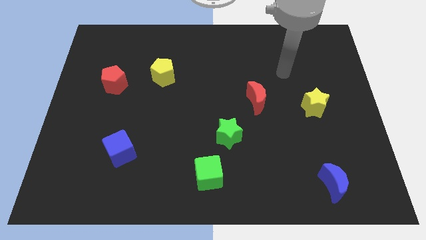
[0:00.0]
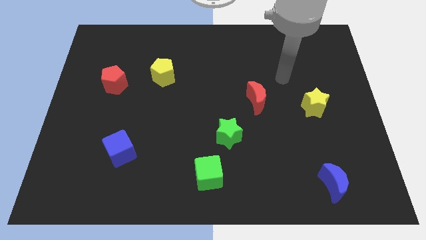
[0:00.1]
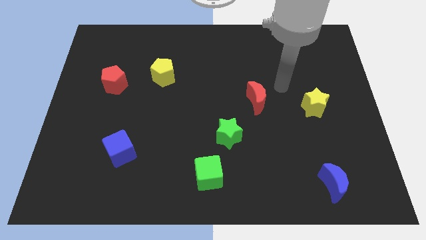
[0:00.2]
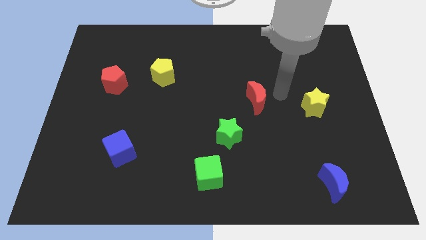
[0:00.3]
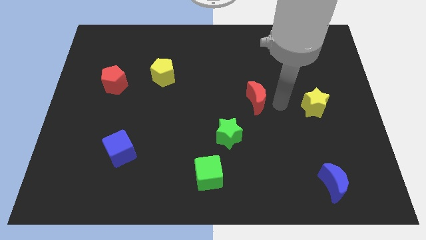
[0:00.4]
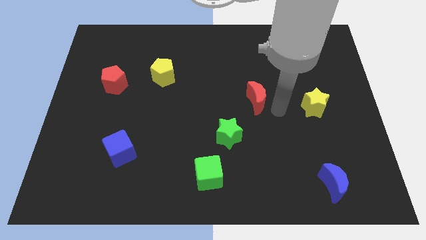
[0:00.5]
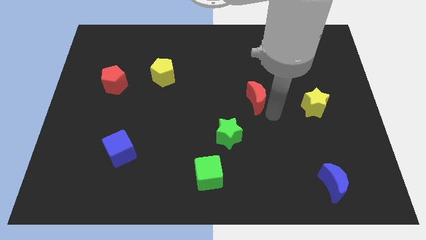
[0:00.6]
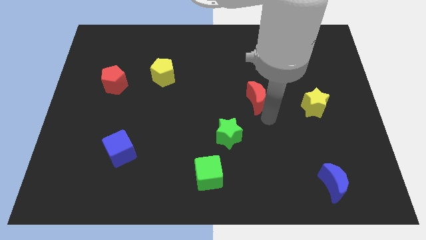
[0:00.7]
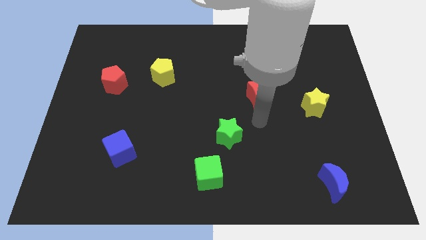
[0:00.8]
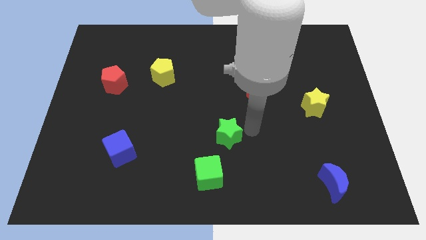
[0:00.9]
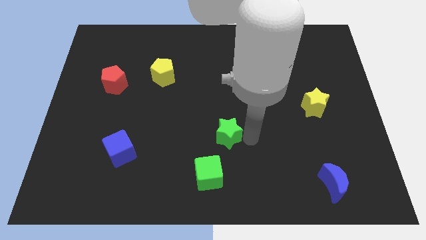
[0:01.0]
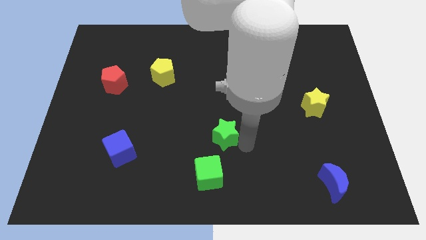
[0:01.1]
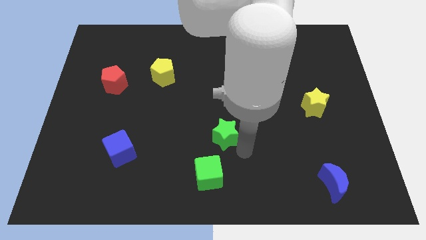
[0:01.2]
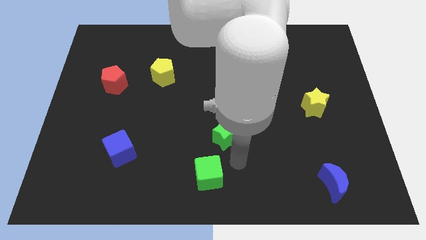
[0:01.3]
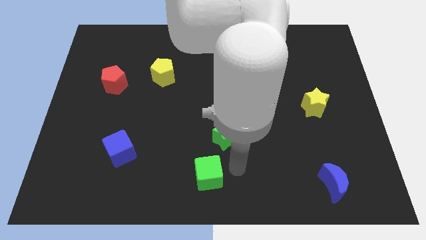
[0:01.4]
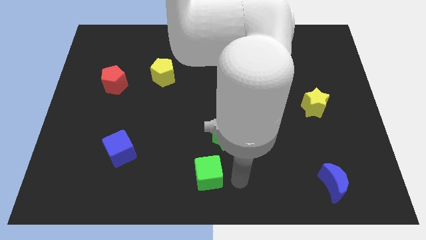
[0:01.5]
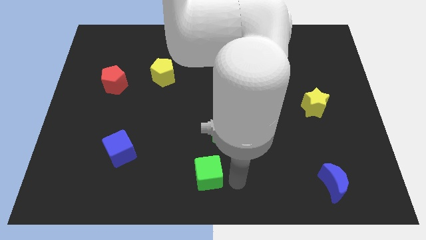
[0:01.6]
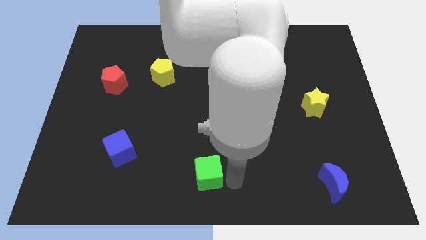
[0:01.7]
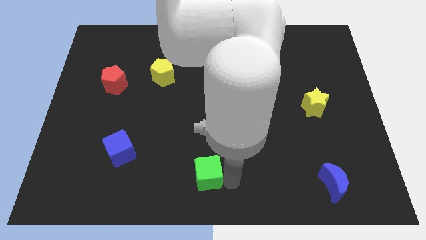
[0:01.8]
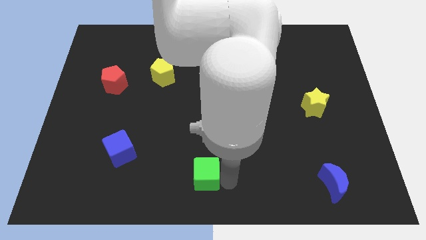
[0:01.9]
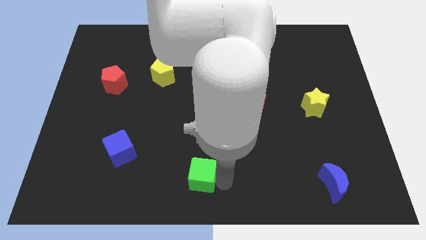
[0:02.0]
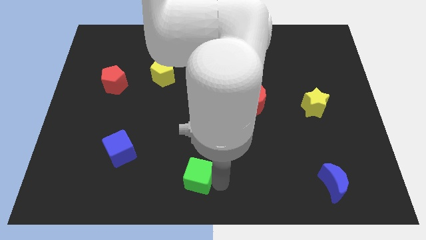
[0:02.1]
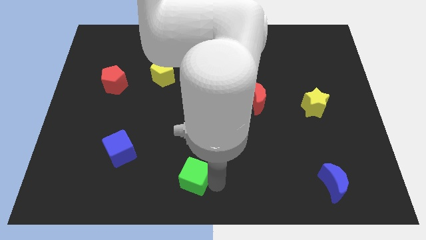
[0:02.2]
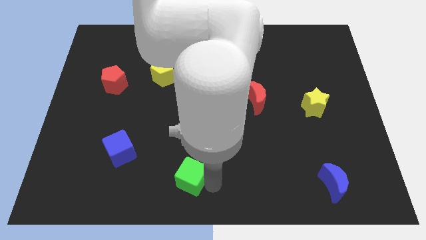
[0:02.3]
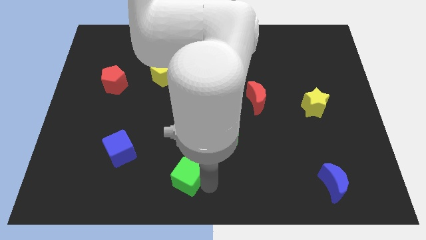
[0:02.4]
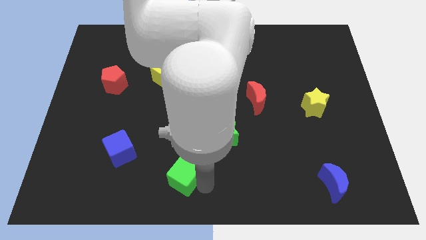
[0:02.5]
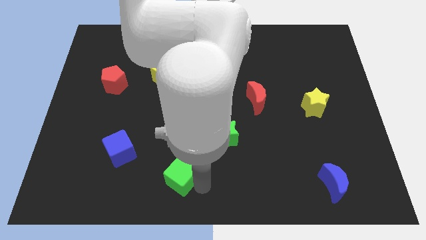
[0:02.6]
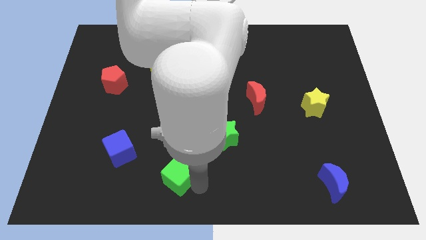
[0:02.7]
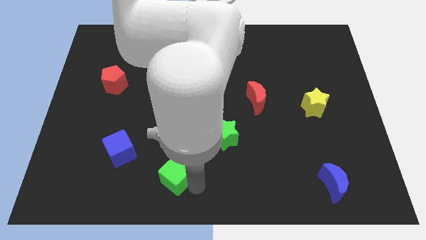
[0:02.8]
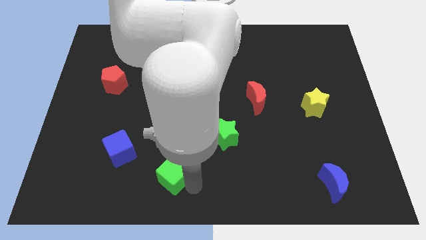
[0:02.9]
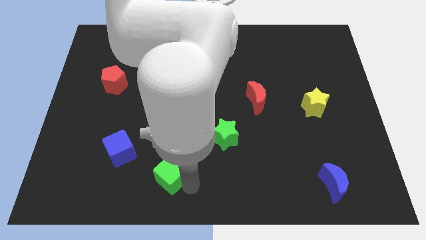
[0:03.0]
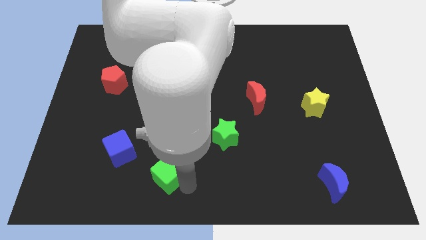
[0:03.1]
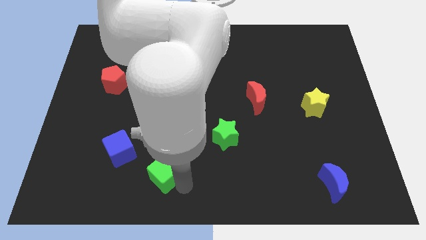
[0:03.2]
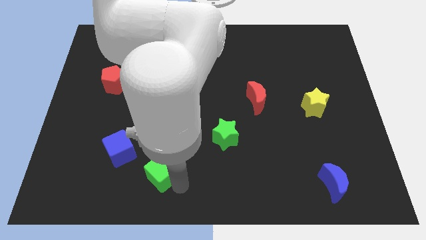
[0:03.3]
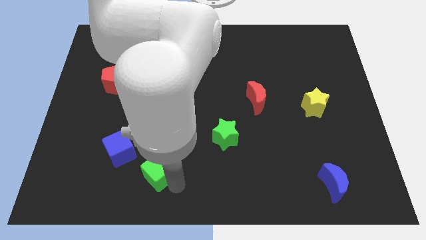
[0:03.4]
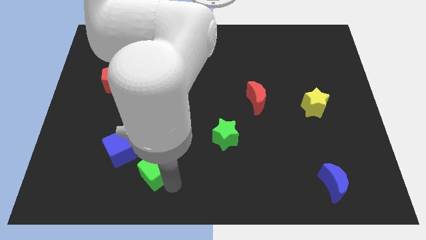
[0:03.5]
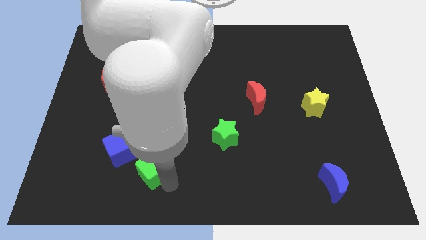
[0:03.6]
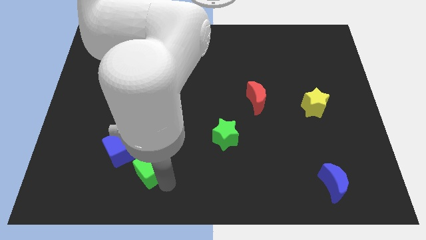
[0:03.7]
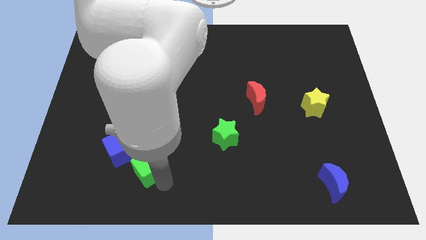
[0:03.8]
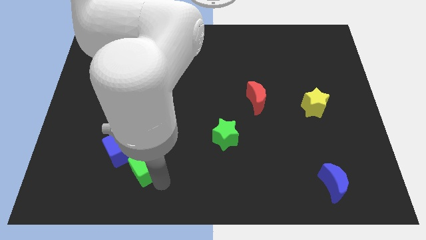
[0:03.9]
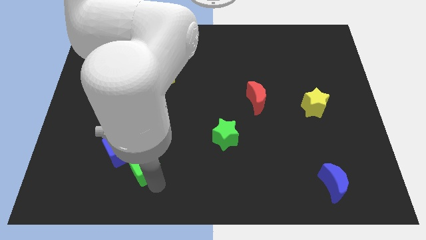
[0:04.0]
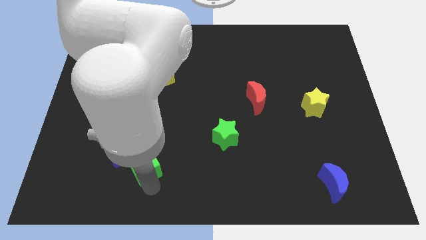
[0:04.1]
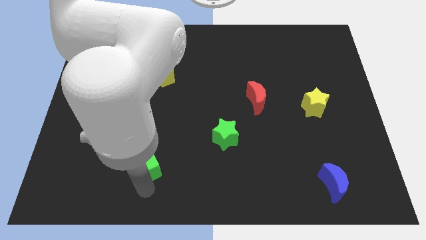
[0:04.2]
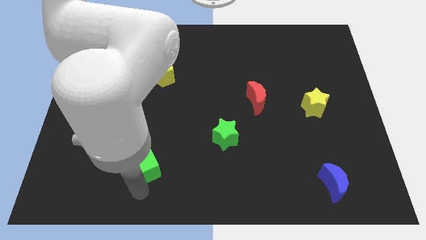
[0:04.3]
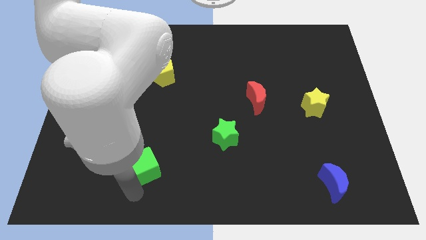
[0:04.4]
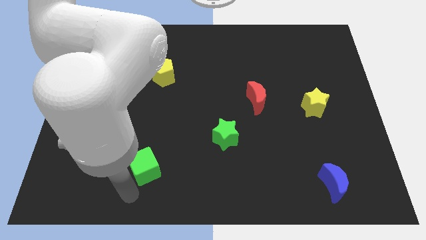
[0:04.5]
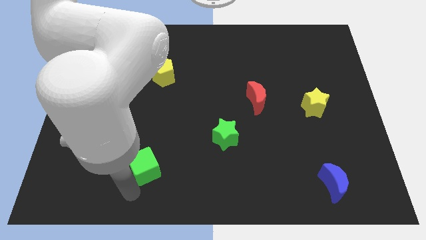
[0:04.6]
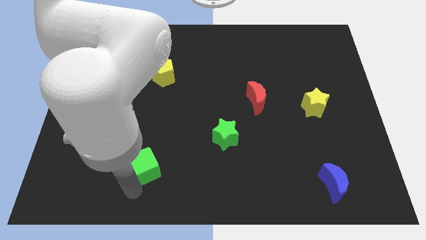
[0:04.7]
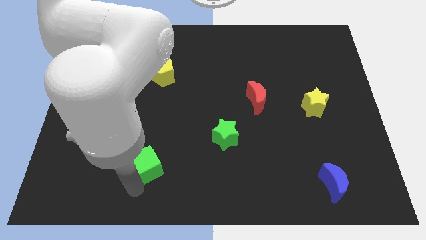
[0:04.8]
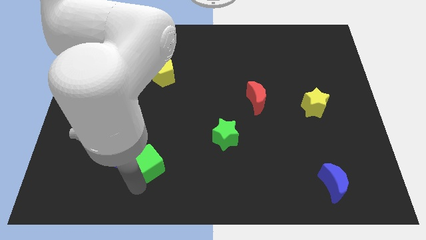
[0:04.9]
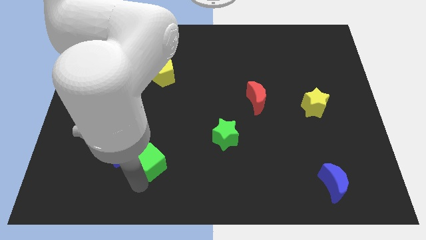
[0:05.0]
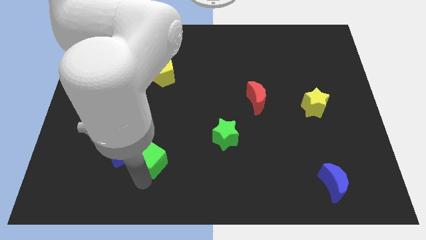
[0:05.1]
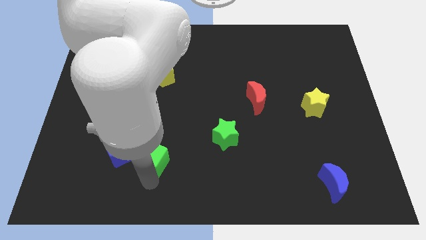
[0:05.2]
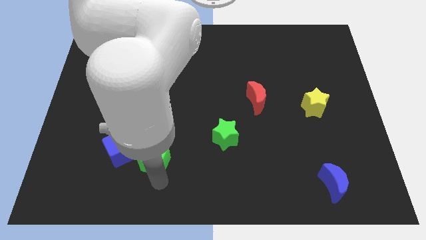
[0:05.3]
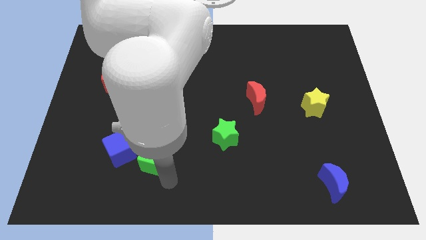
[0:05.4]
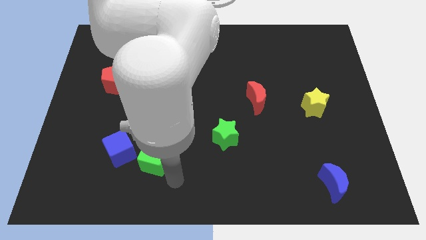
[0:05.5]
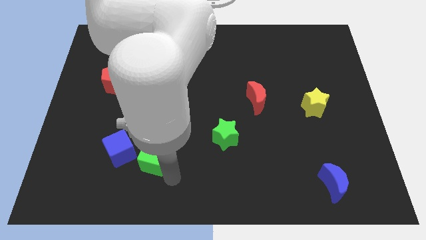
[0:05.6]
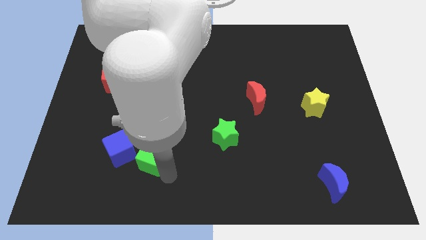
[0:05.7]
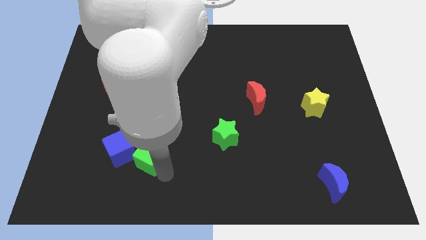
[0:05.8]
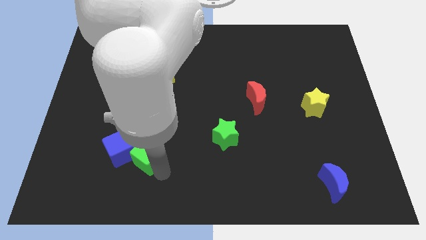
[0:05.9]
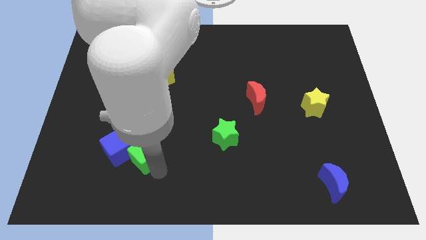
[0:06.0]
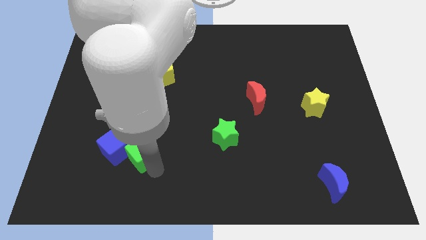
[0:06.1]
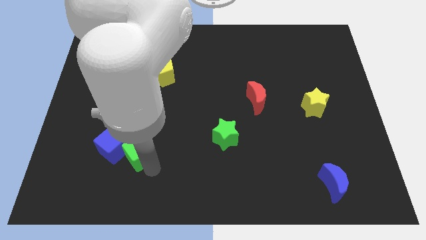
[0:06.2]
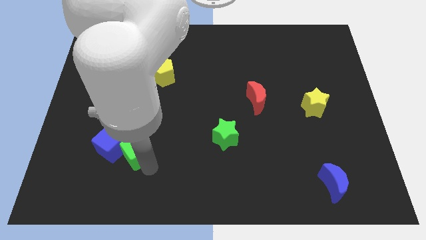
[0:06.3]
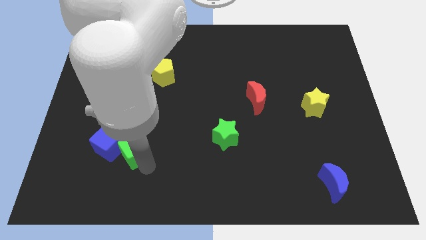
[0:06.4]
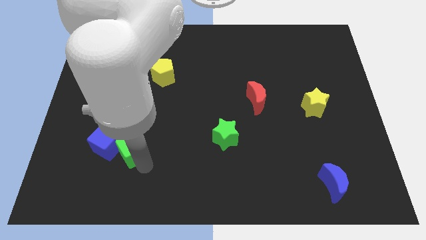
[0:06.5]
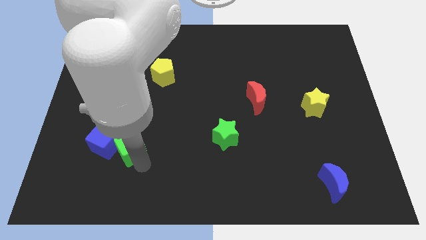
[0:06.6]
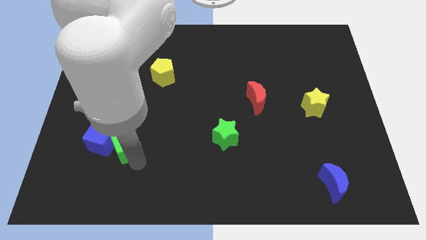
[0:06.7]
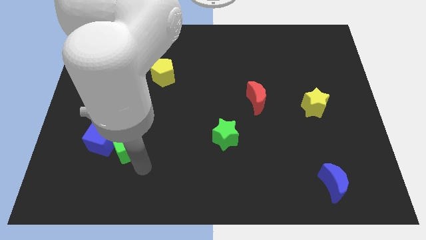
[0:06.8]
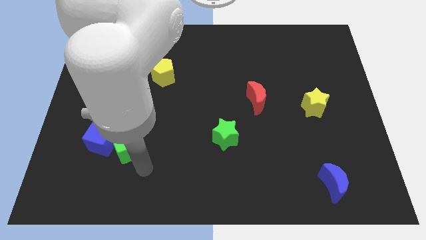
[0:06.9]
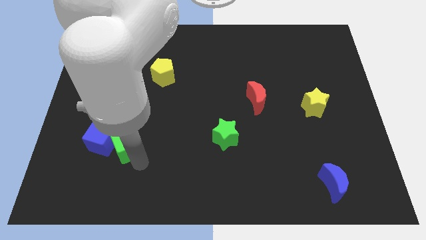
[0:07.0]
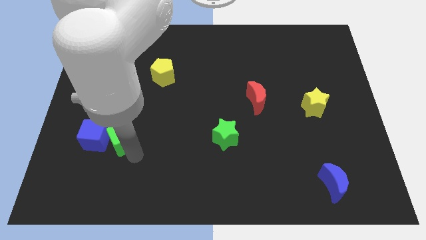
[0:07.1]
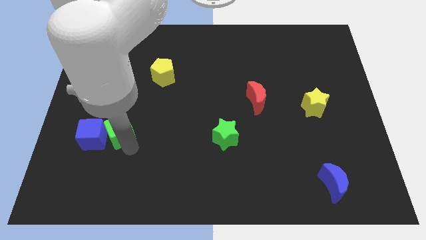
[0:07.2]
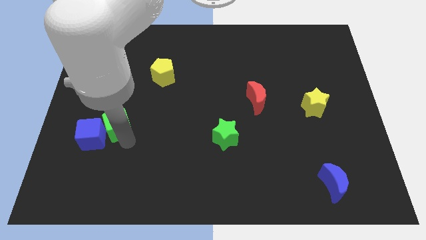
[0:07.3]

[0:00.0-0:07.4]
move the green cube below the red pentagon

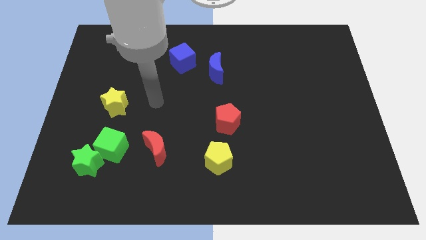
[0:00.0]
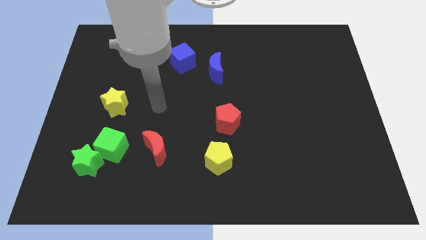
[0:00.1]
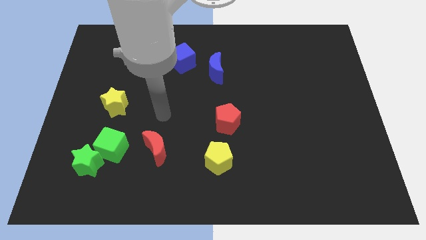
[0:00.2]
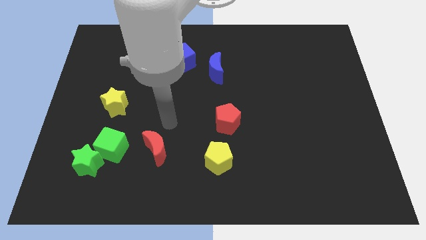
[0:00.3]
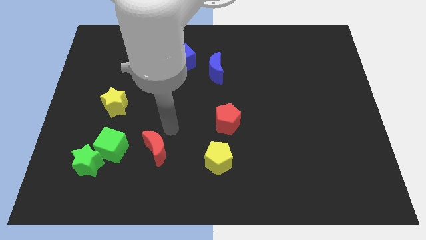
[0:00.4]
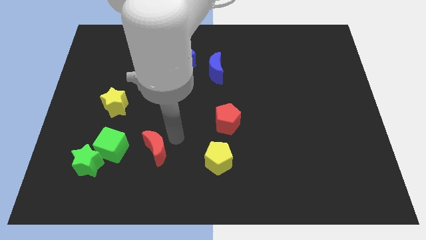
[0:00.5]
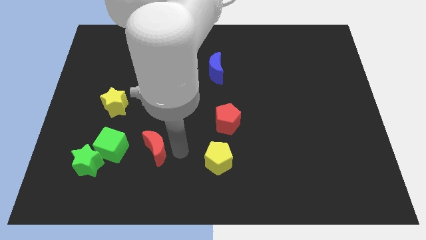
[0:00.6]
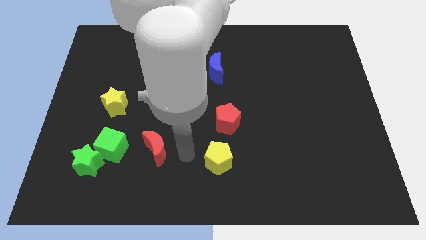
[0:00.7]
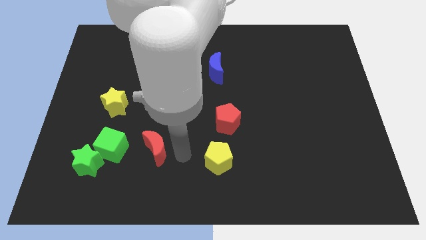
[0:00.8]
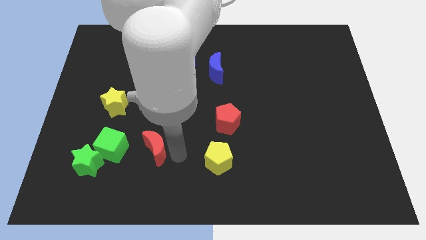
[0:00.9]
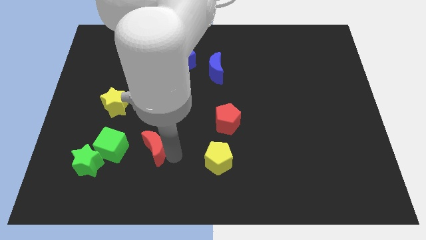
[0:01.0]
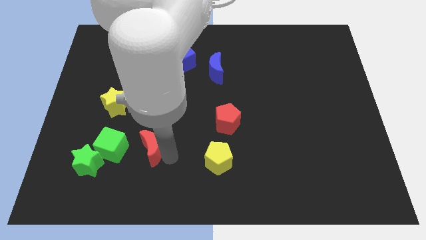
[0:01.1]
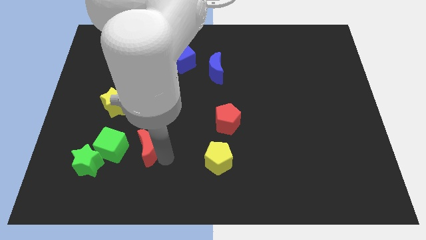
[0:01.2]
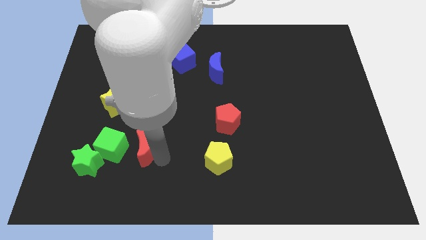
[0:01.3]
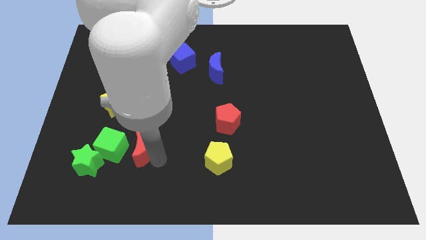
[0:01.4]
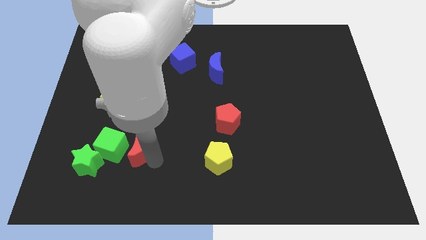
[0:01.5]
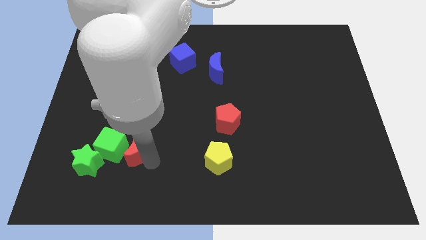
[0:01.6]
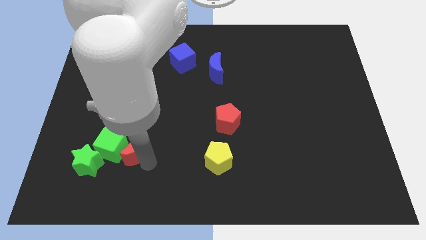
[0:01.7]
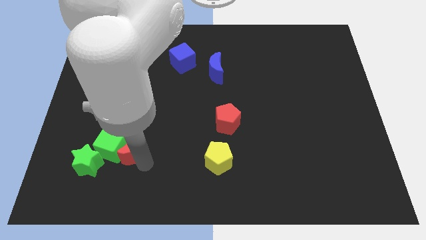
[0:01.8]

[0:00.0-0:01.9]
put the red moon to the top right of the green star
